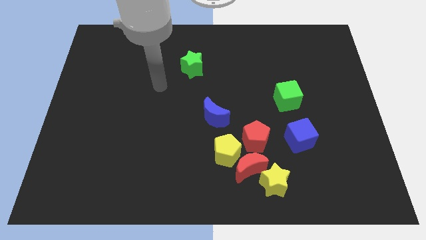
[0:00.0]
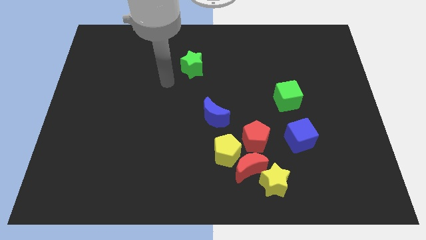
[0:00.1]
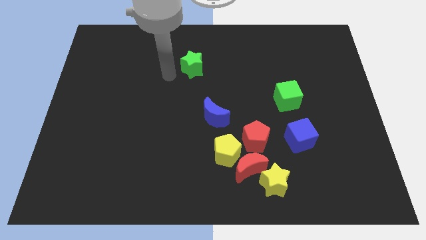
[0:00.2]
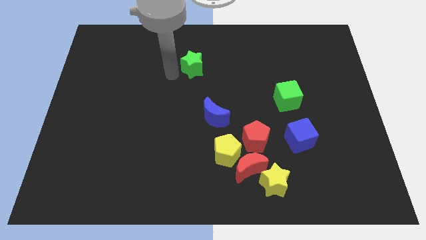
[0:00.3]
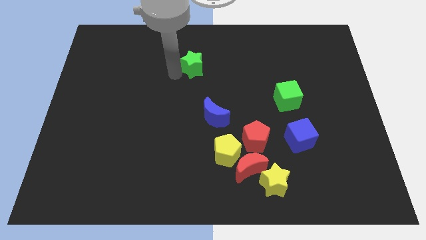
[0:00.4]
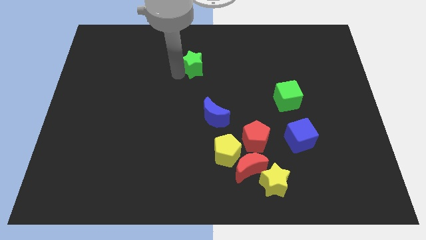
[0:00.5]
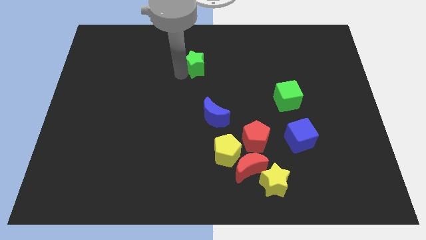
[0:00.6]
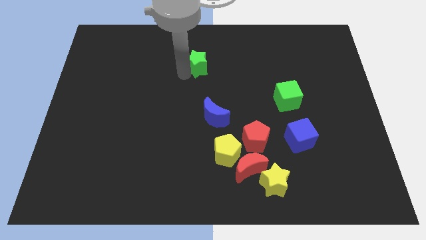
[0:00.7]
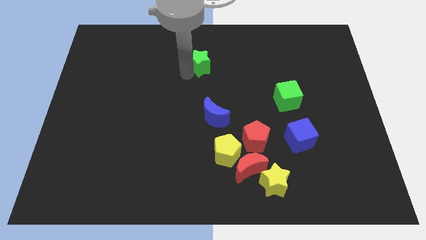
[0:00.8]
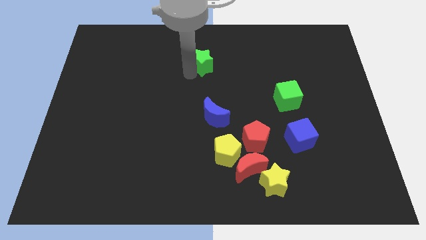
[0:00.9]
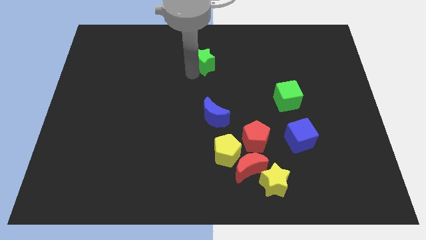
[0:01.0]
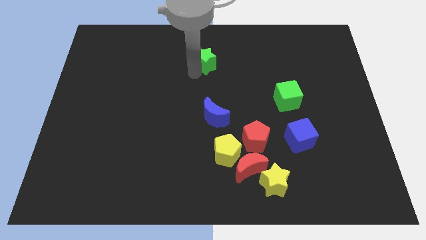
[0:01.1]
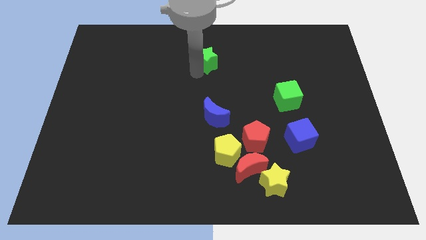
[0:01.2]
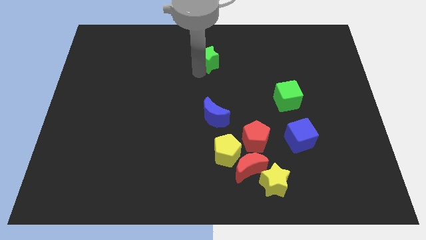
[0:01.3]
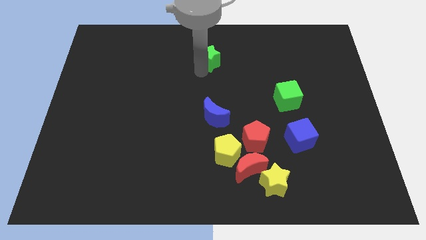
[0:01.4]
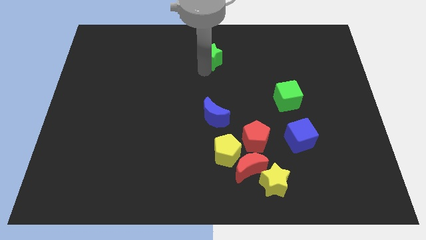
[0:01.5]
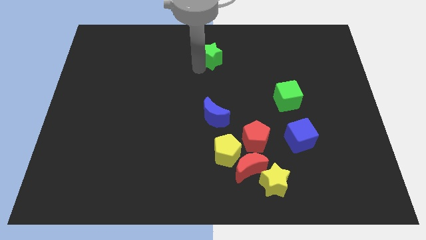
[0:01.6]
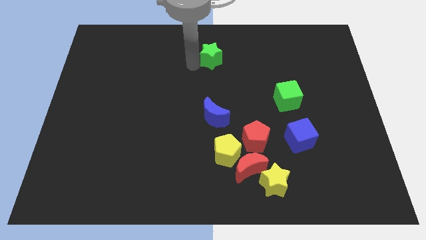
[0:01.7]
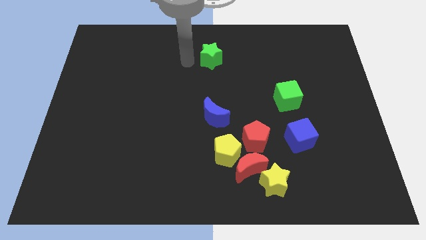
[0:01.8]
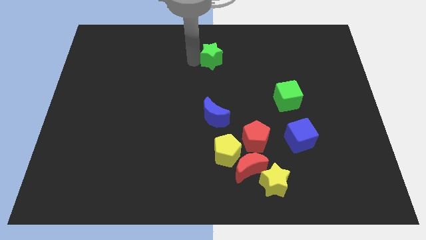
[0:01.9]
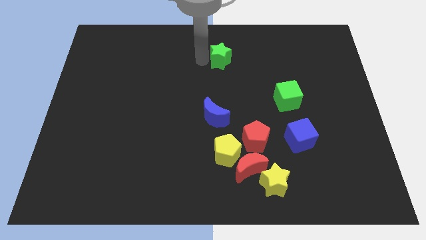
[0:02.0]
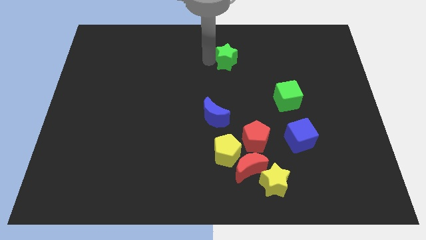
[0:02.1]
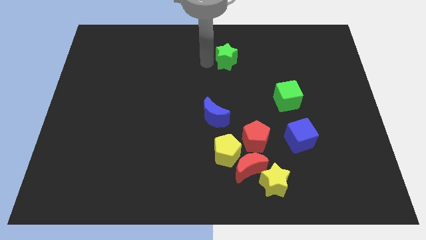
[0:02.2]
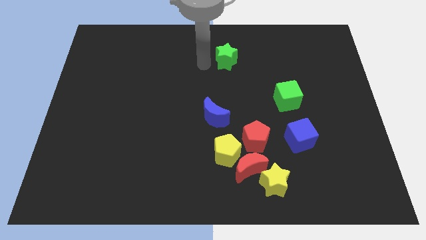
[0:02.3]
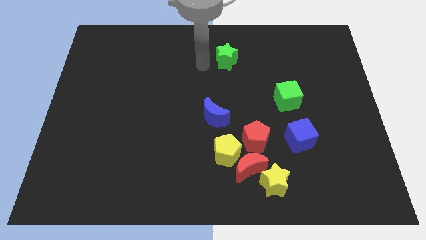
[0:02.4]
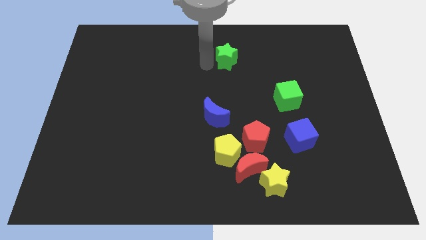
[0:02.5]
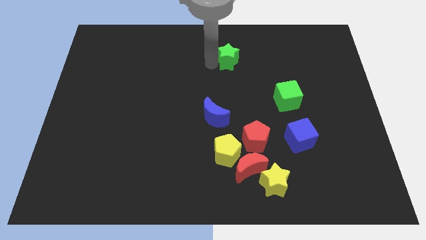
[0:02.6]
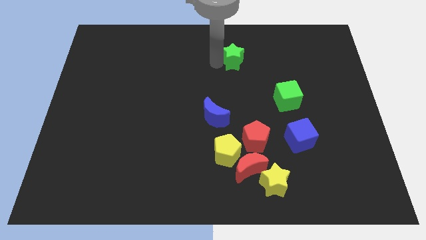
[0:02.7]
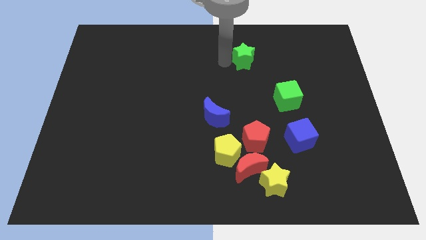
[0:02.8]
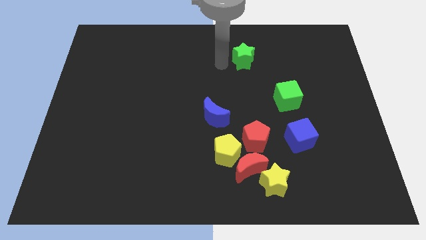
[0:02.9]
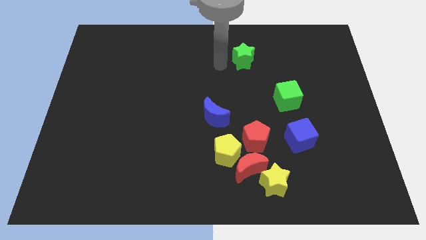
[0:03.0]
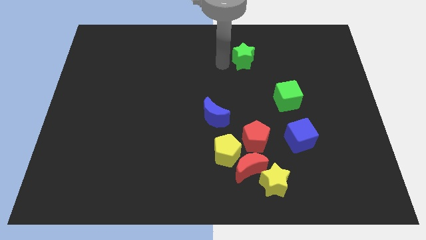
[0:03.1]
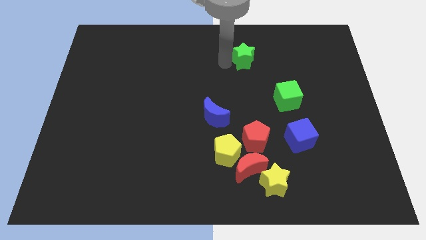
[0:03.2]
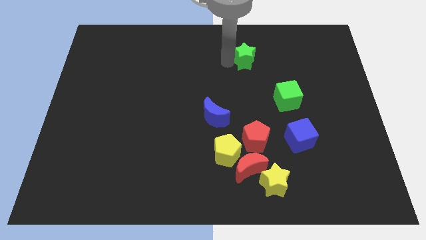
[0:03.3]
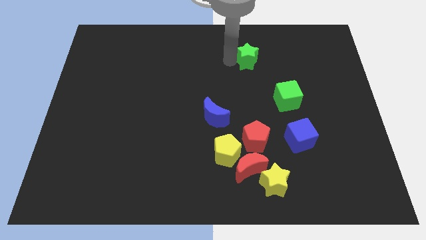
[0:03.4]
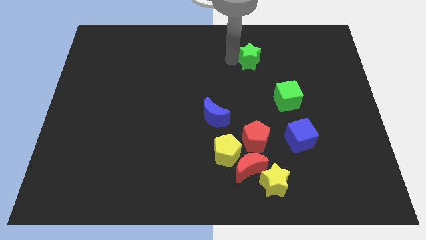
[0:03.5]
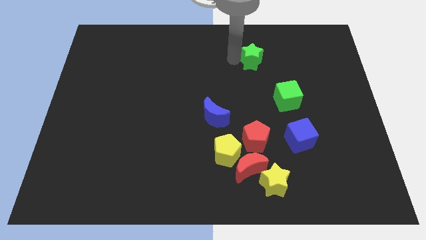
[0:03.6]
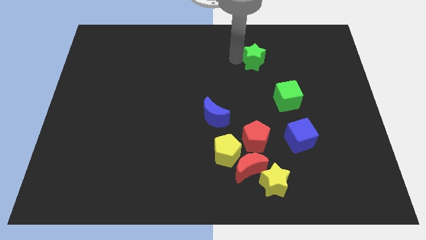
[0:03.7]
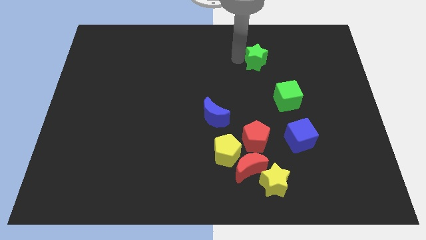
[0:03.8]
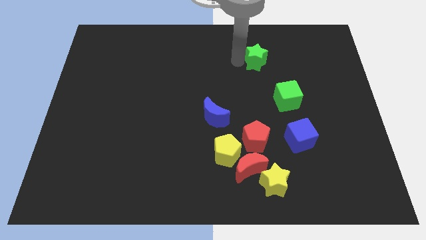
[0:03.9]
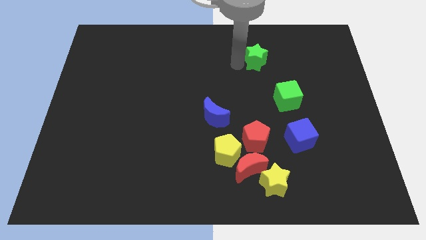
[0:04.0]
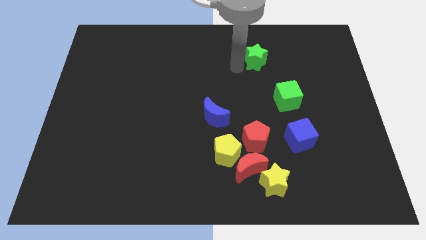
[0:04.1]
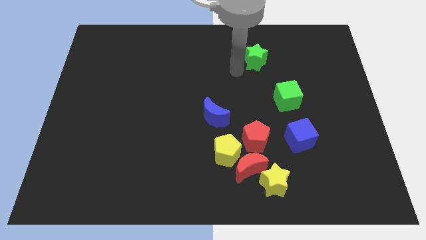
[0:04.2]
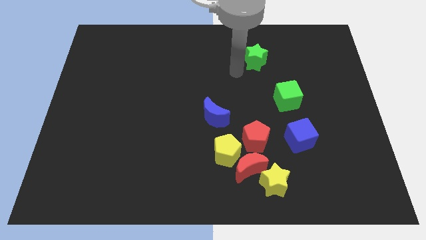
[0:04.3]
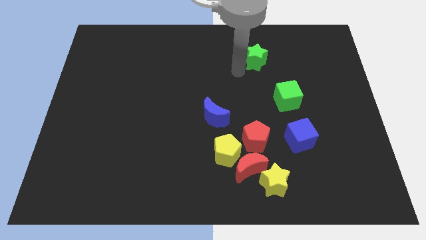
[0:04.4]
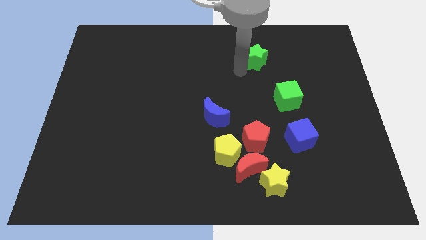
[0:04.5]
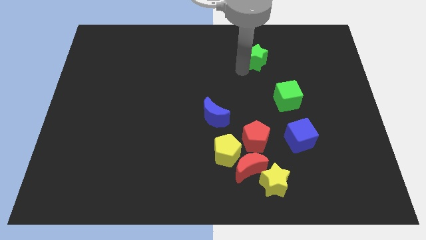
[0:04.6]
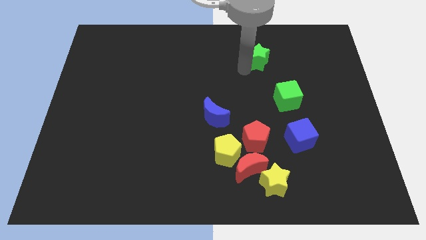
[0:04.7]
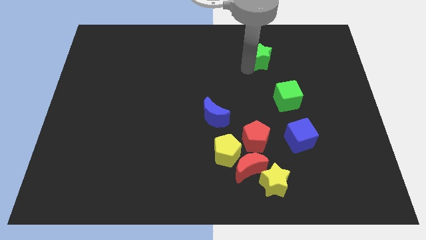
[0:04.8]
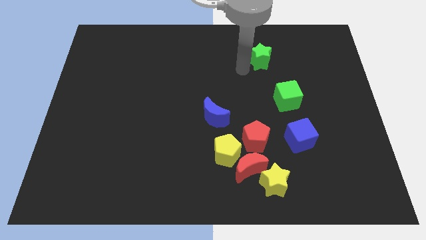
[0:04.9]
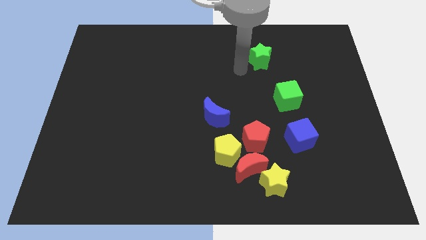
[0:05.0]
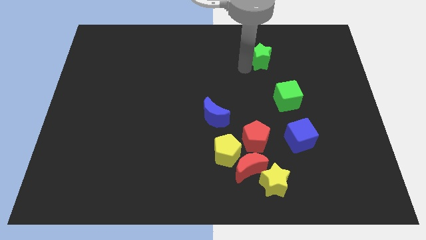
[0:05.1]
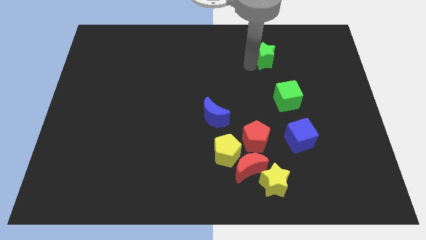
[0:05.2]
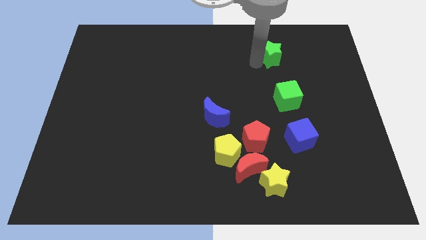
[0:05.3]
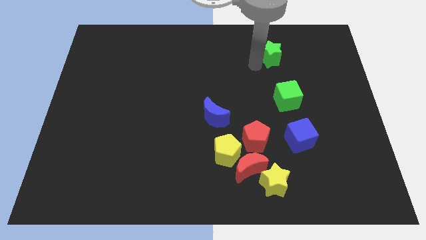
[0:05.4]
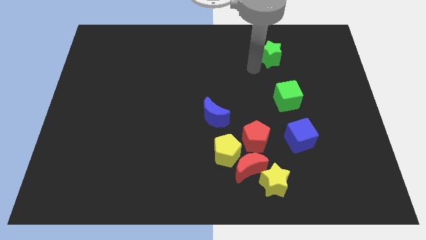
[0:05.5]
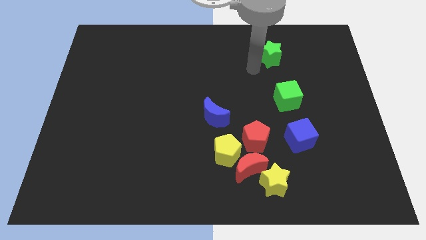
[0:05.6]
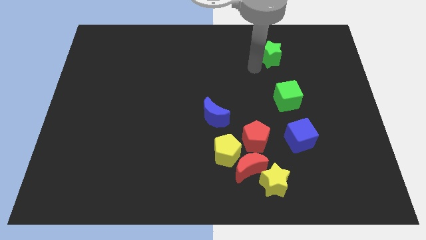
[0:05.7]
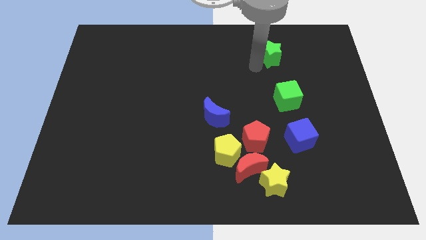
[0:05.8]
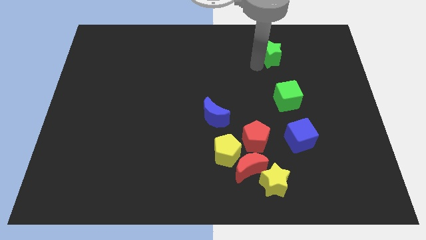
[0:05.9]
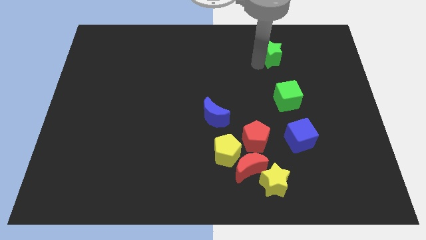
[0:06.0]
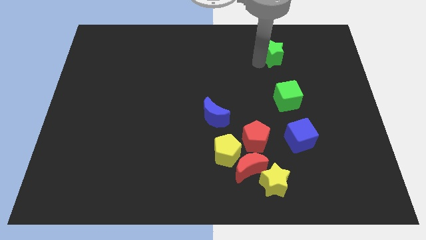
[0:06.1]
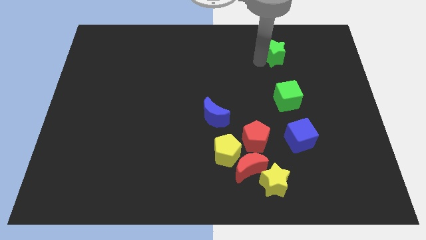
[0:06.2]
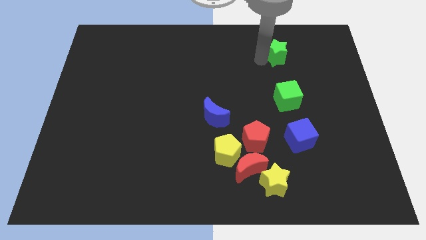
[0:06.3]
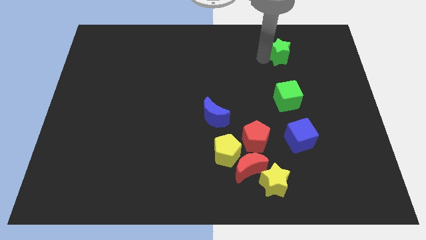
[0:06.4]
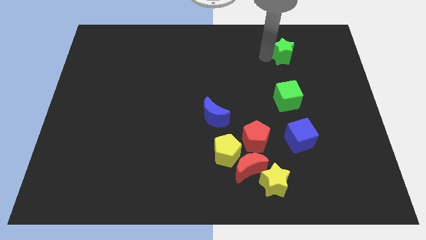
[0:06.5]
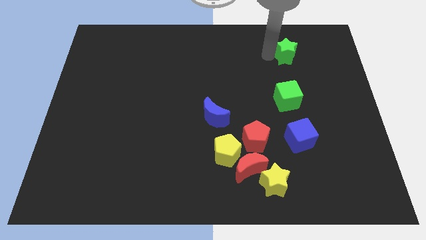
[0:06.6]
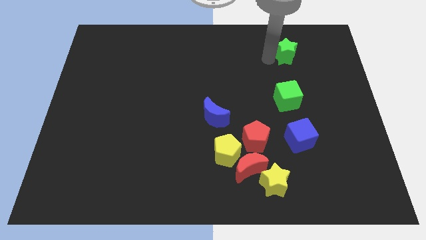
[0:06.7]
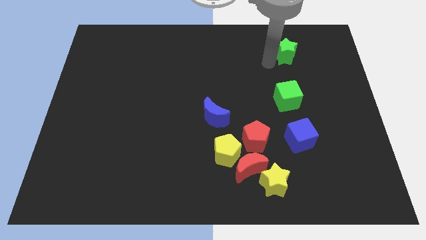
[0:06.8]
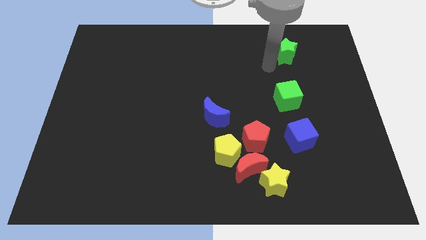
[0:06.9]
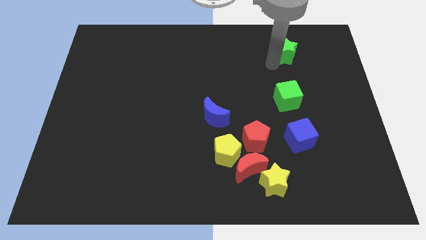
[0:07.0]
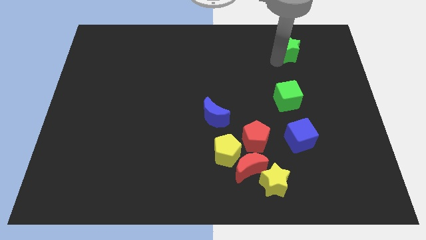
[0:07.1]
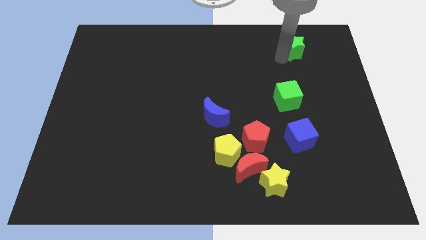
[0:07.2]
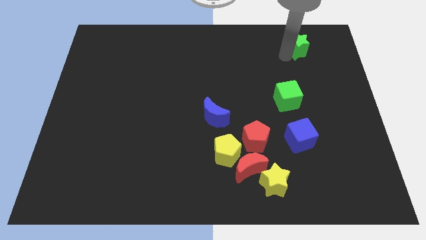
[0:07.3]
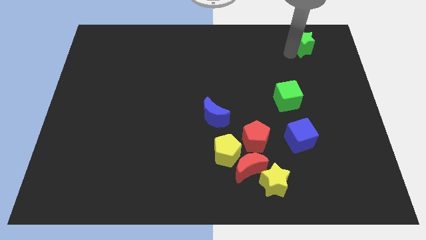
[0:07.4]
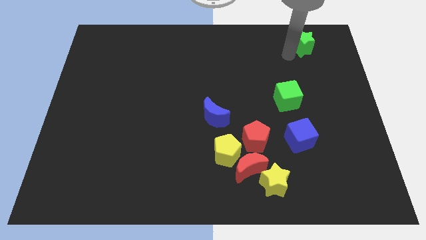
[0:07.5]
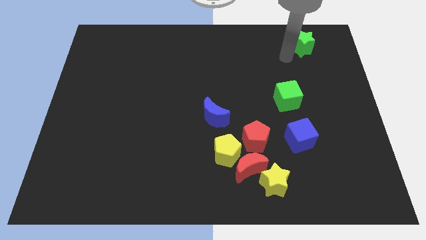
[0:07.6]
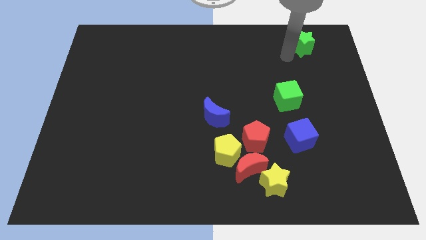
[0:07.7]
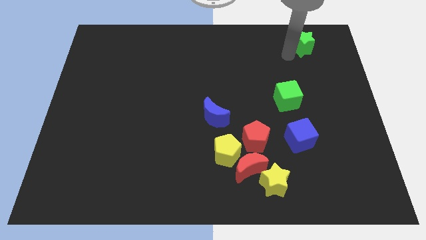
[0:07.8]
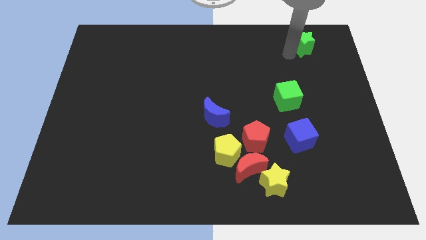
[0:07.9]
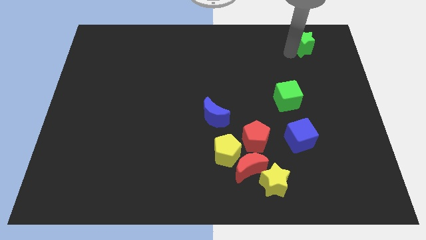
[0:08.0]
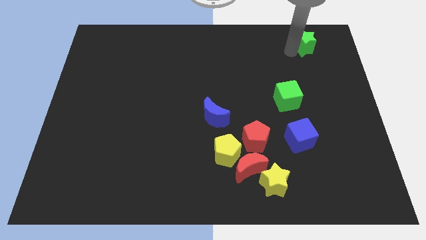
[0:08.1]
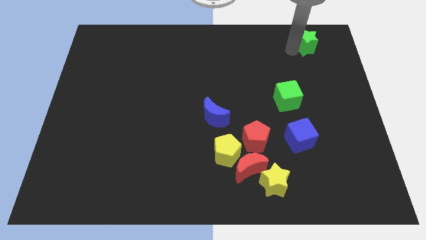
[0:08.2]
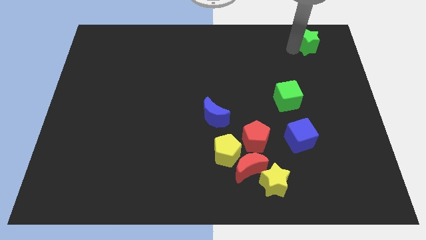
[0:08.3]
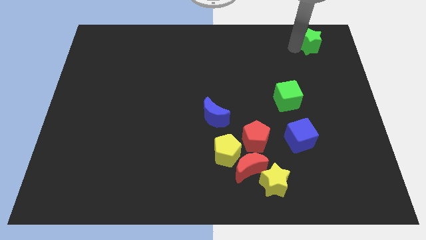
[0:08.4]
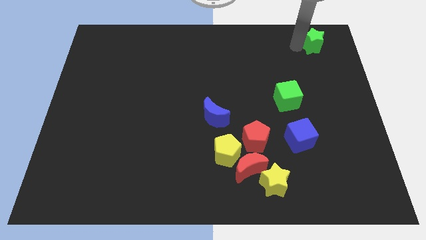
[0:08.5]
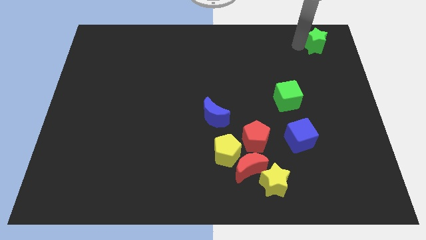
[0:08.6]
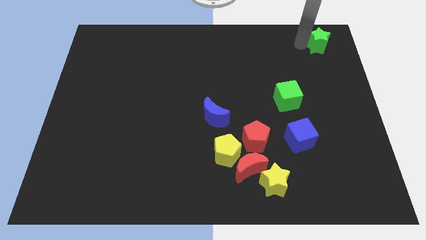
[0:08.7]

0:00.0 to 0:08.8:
move the green star to the top right corner
